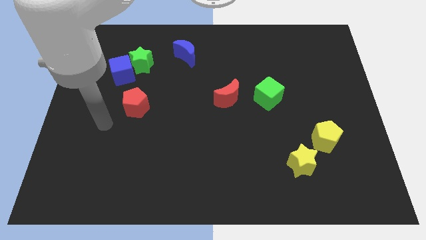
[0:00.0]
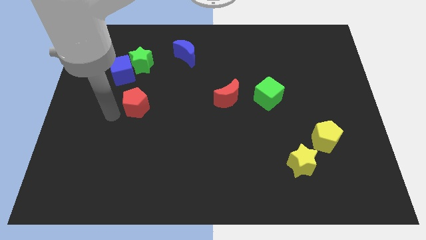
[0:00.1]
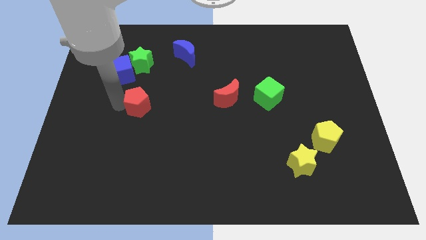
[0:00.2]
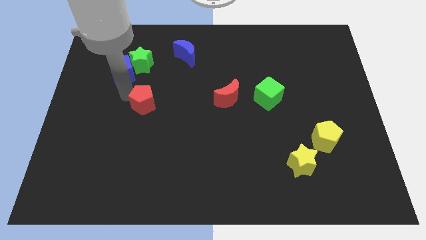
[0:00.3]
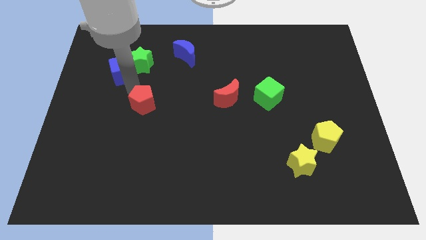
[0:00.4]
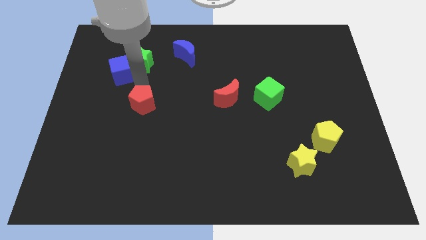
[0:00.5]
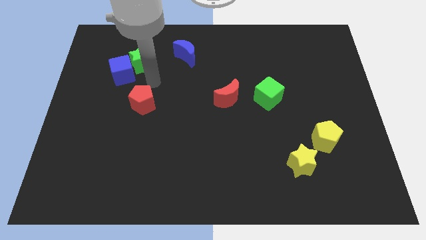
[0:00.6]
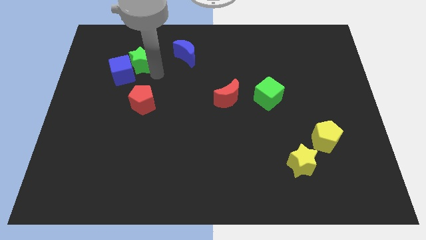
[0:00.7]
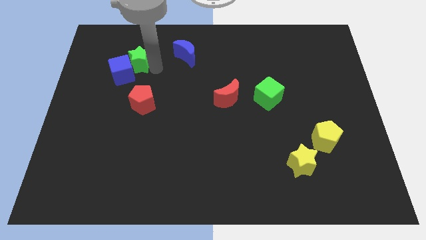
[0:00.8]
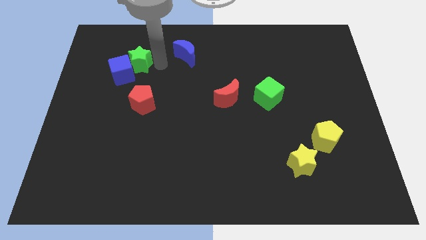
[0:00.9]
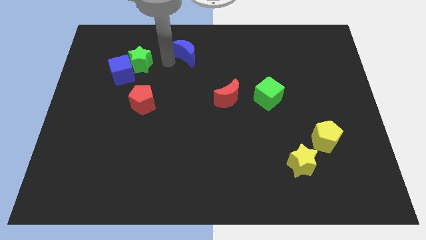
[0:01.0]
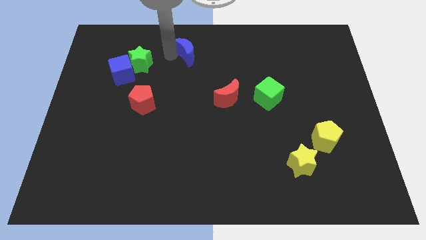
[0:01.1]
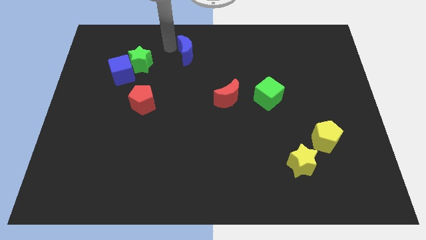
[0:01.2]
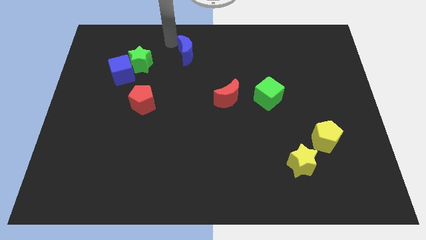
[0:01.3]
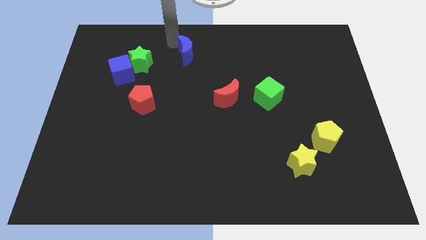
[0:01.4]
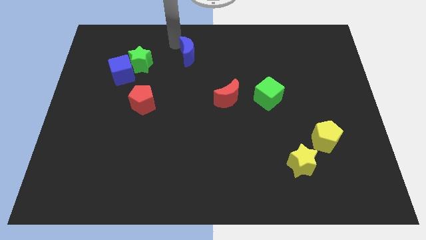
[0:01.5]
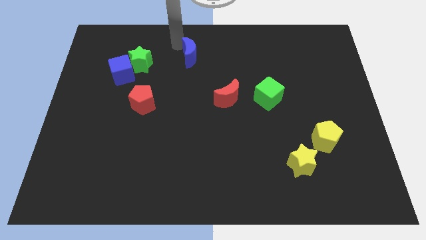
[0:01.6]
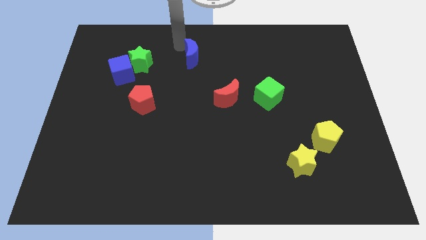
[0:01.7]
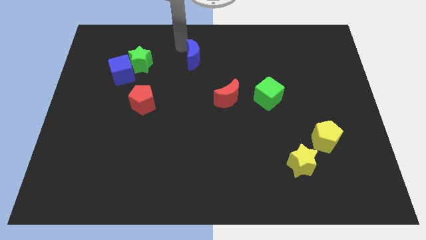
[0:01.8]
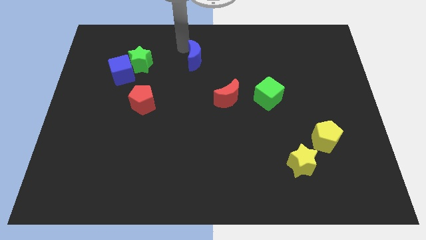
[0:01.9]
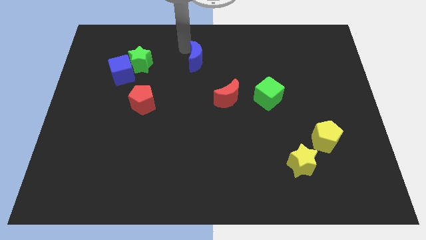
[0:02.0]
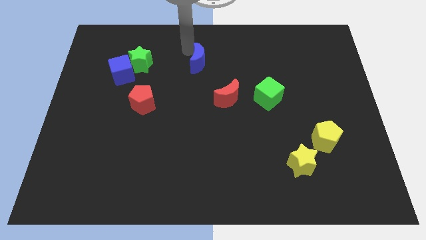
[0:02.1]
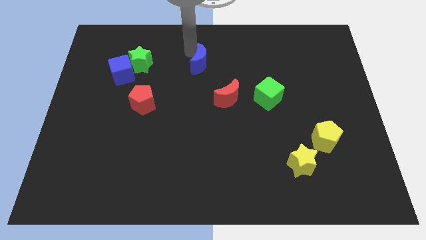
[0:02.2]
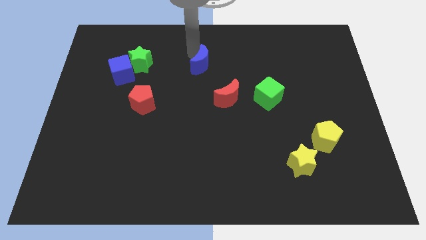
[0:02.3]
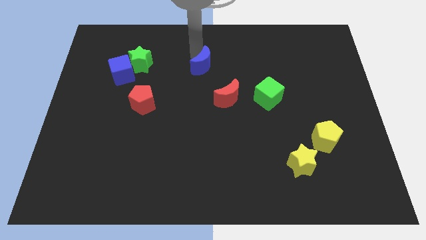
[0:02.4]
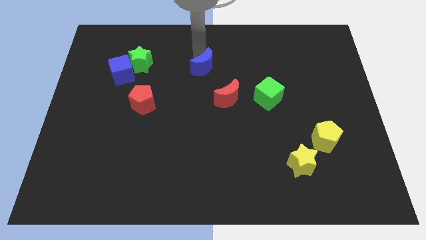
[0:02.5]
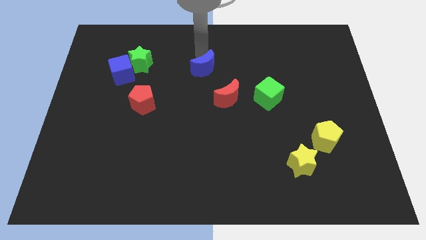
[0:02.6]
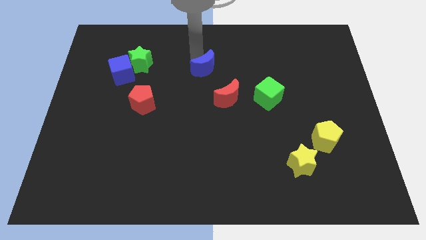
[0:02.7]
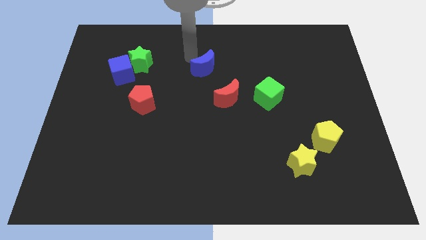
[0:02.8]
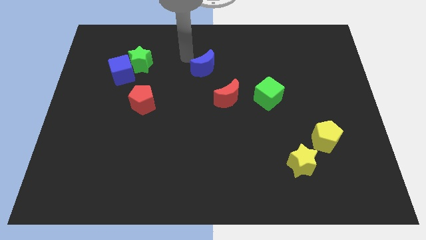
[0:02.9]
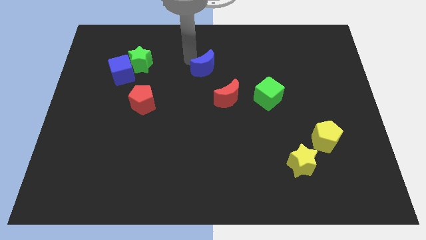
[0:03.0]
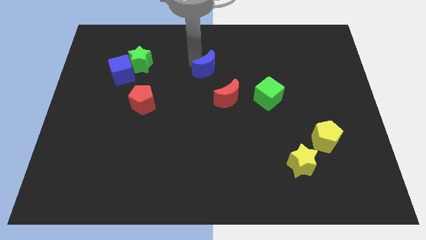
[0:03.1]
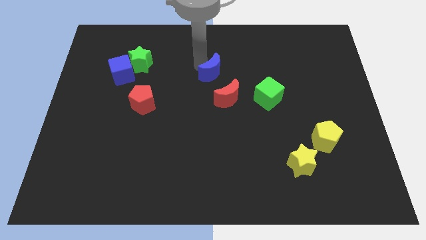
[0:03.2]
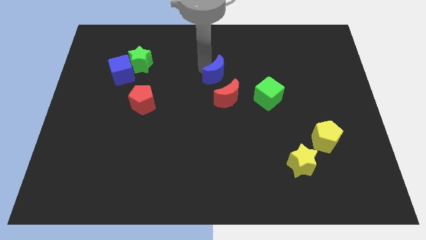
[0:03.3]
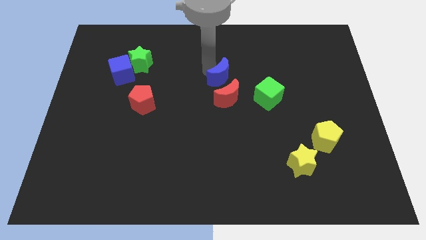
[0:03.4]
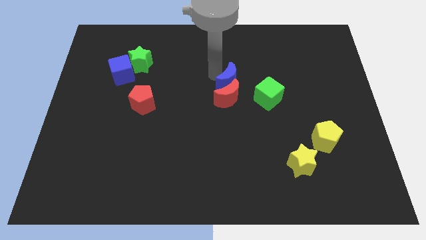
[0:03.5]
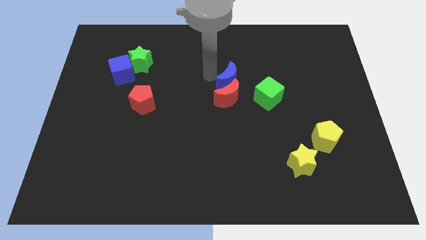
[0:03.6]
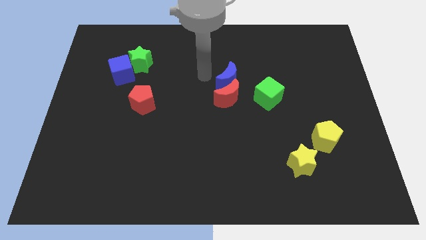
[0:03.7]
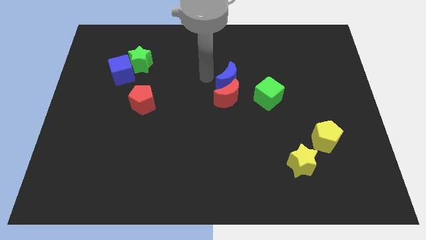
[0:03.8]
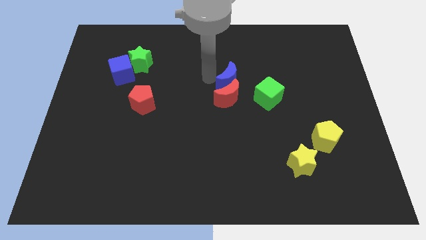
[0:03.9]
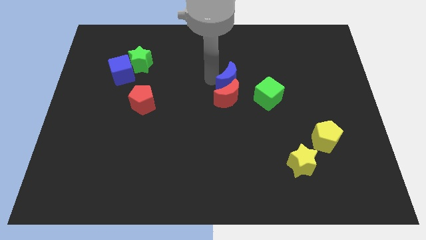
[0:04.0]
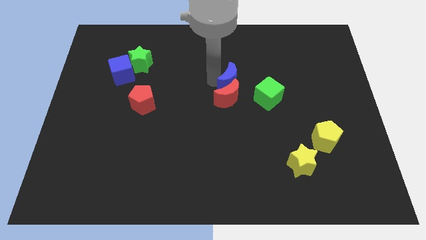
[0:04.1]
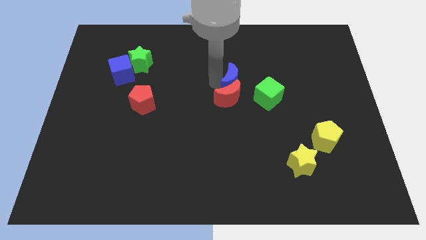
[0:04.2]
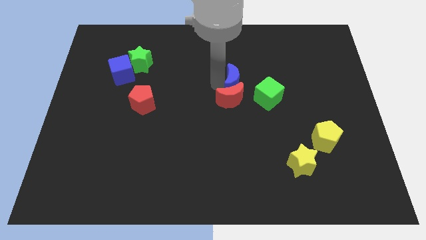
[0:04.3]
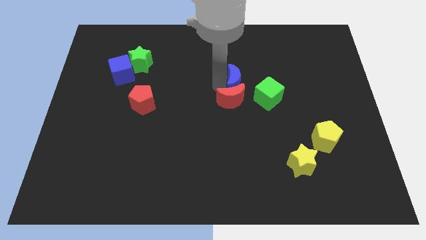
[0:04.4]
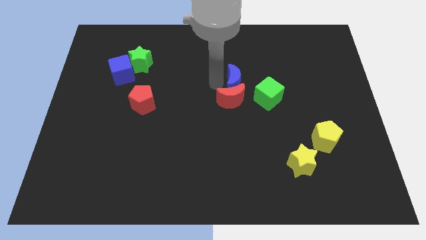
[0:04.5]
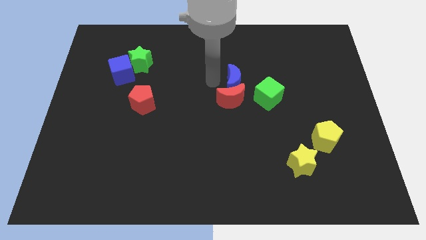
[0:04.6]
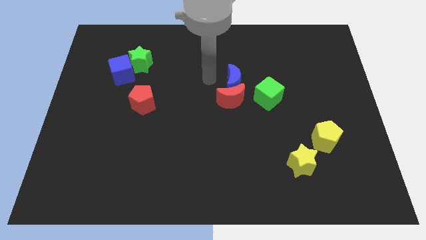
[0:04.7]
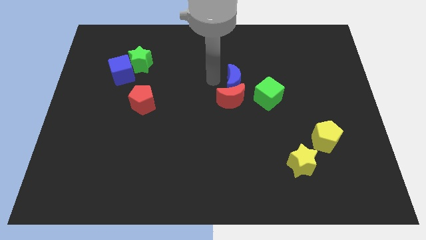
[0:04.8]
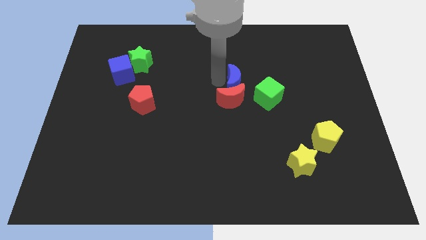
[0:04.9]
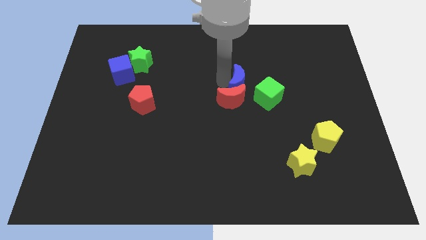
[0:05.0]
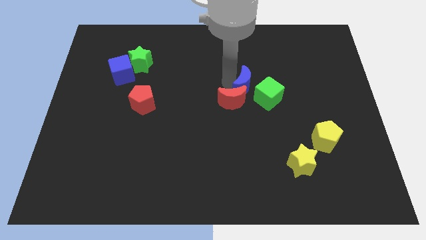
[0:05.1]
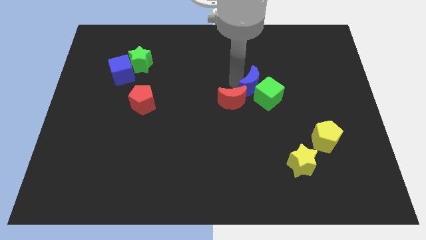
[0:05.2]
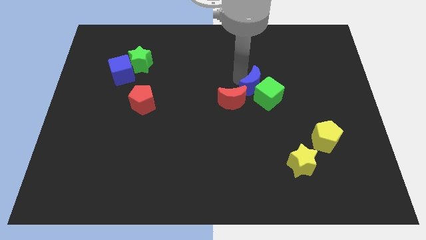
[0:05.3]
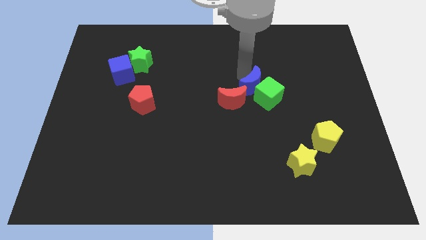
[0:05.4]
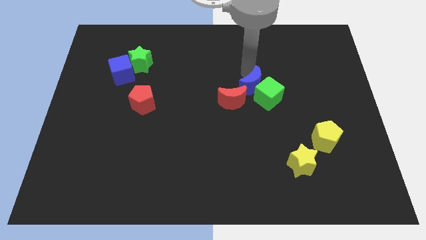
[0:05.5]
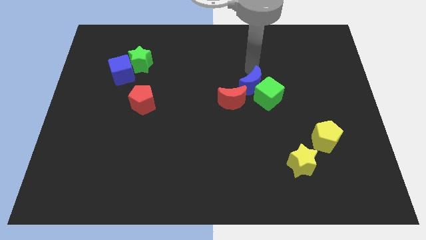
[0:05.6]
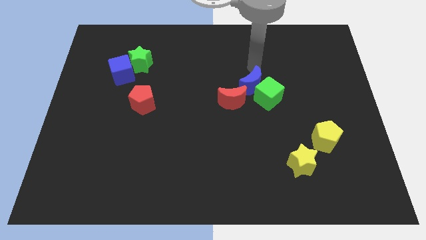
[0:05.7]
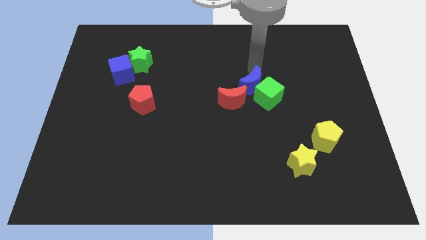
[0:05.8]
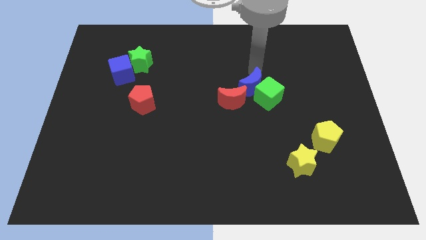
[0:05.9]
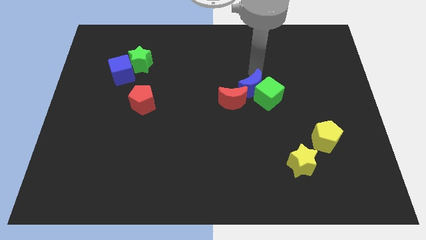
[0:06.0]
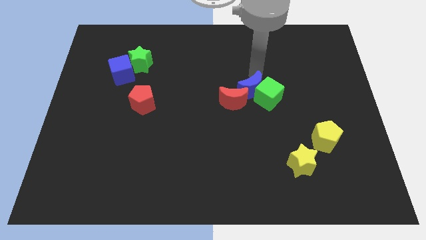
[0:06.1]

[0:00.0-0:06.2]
slide the blue moon down and then right

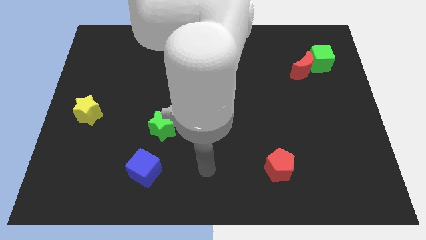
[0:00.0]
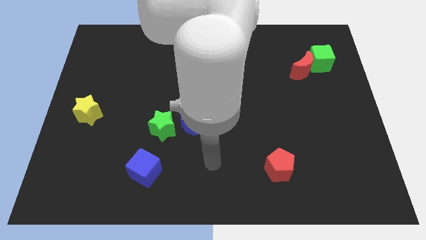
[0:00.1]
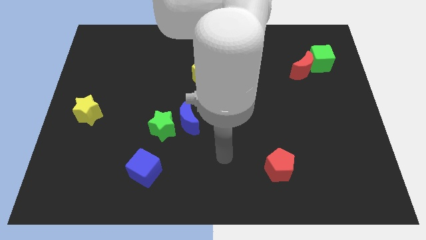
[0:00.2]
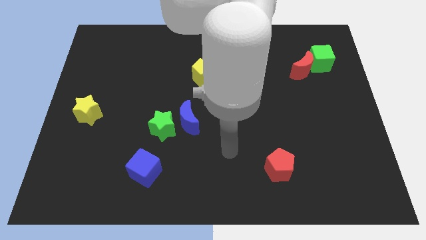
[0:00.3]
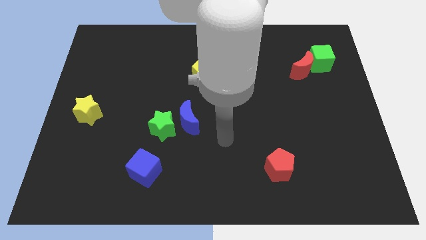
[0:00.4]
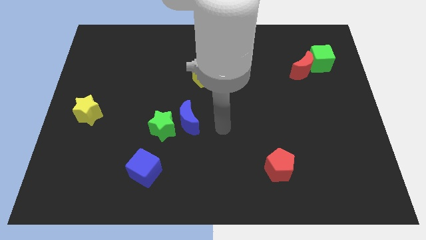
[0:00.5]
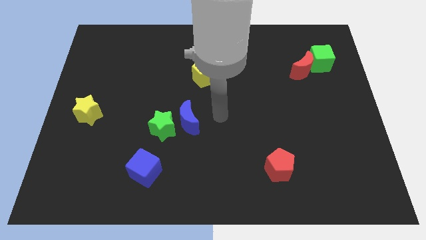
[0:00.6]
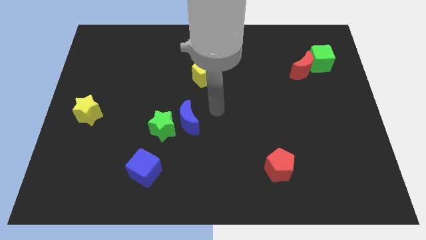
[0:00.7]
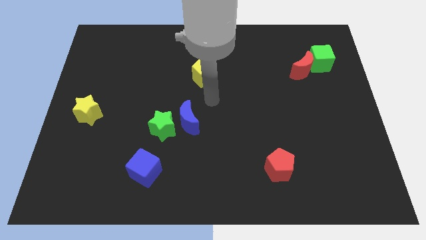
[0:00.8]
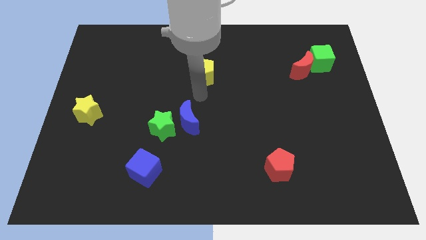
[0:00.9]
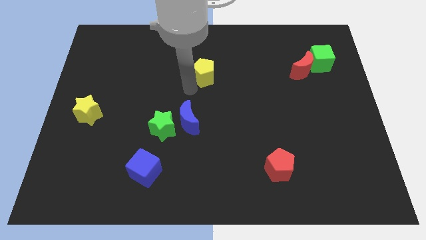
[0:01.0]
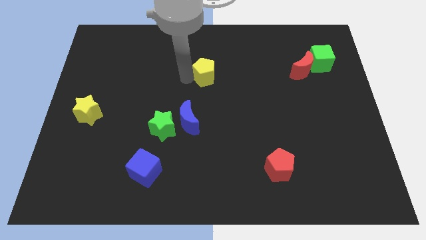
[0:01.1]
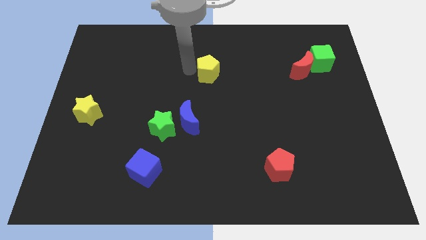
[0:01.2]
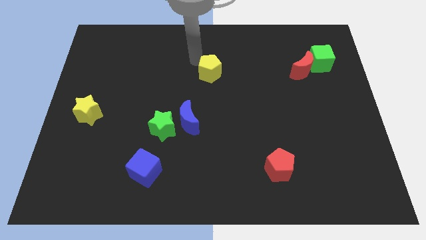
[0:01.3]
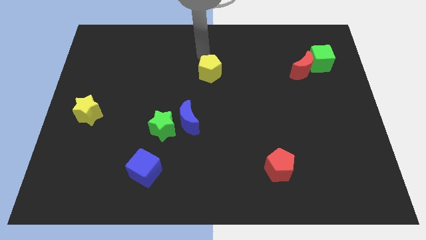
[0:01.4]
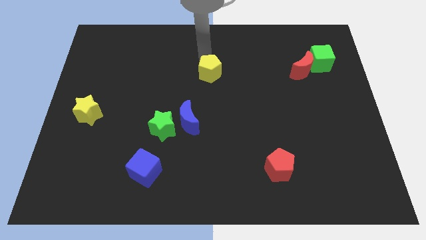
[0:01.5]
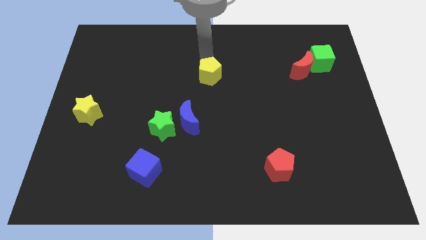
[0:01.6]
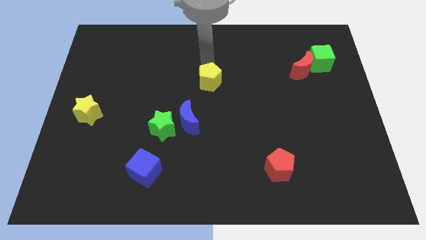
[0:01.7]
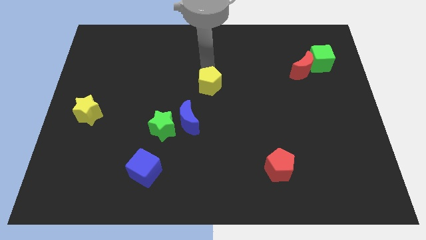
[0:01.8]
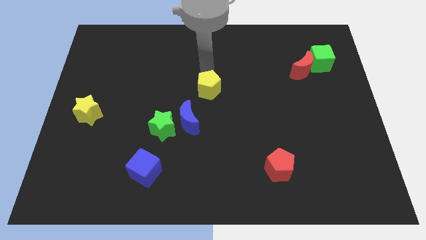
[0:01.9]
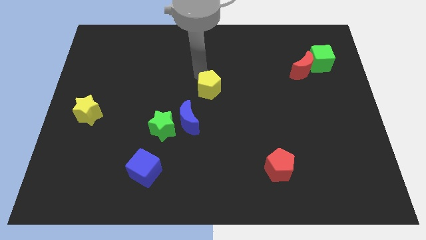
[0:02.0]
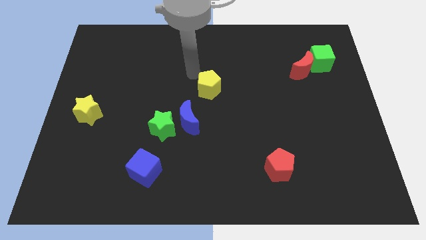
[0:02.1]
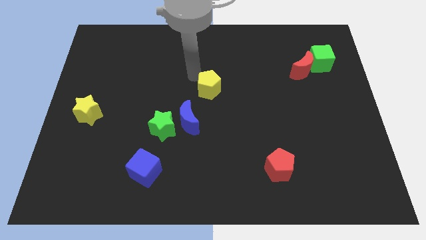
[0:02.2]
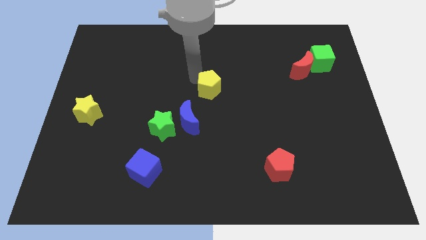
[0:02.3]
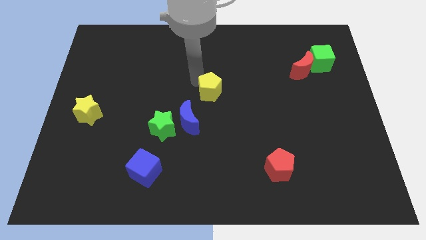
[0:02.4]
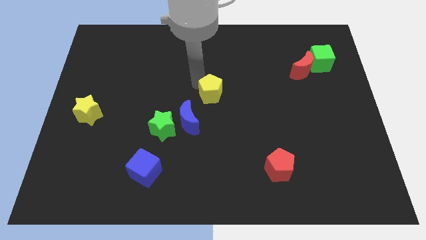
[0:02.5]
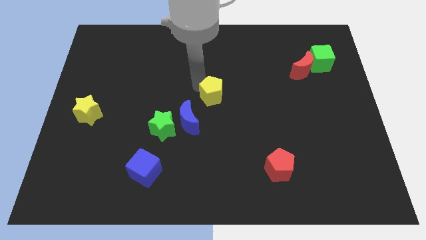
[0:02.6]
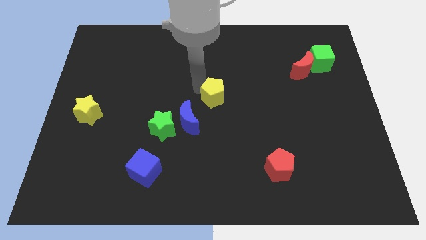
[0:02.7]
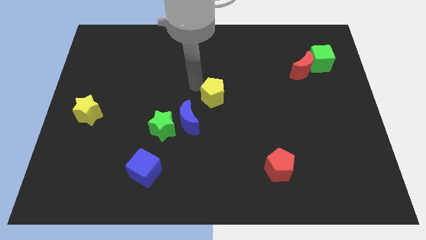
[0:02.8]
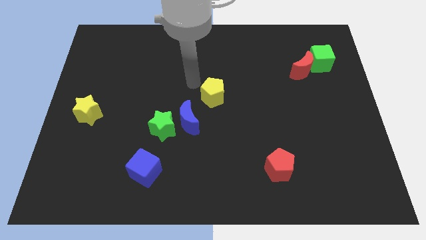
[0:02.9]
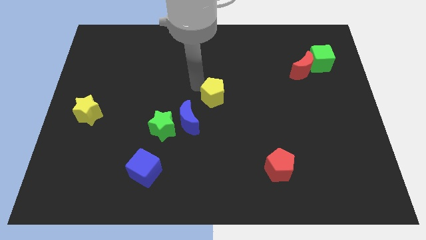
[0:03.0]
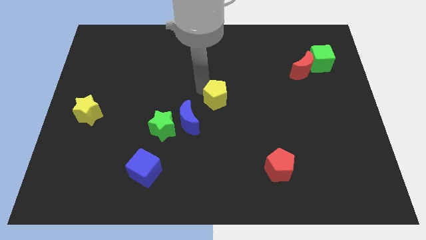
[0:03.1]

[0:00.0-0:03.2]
push the yellow pentagon somewhat downwards and right diagonally
